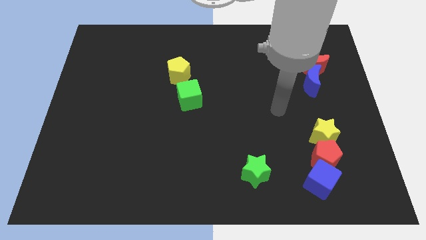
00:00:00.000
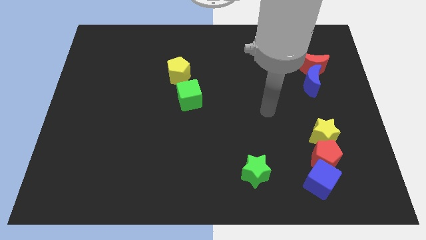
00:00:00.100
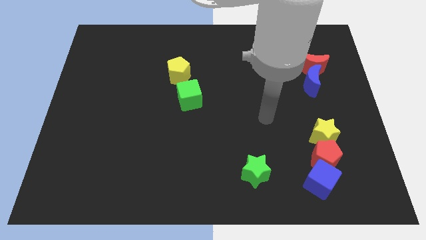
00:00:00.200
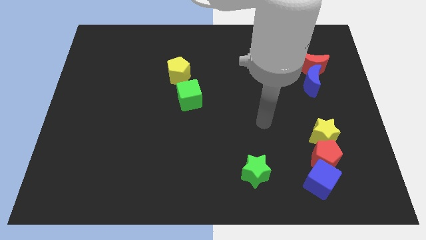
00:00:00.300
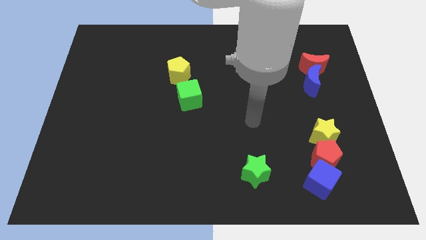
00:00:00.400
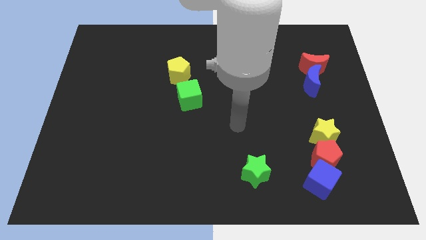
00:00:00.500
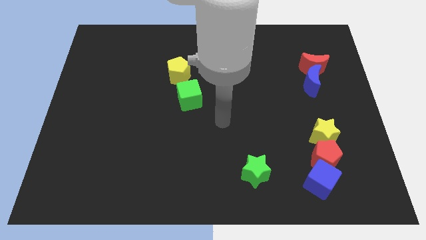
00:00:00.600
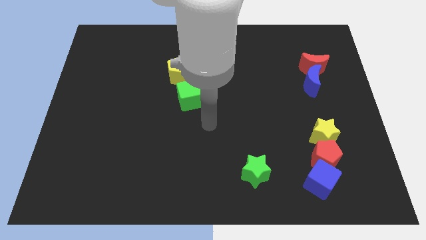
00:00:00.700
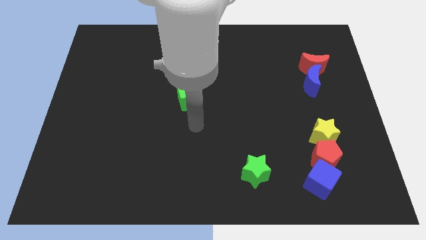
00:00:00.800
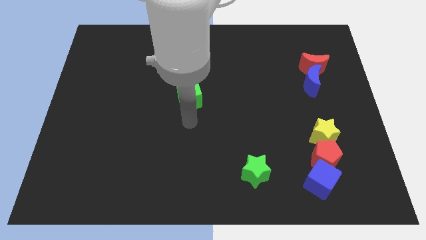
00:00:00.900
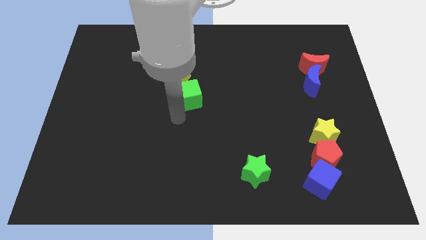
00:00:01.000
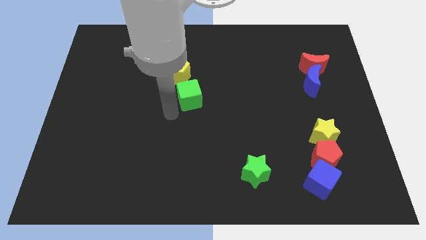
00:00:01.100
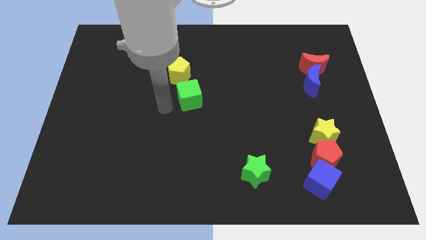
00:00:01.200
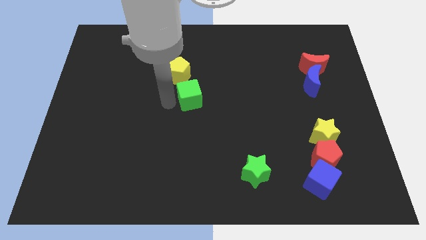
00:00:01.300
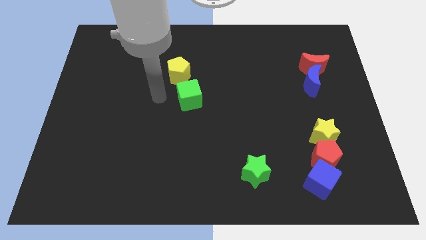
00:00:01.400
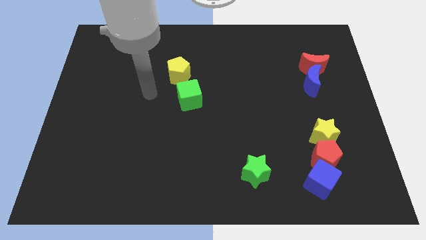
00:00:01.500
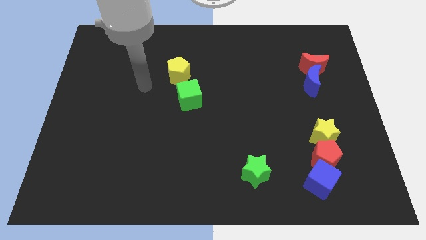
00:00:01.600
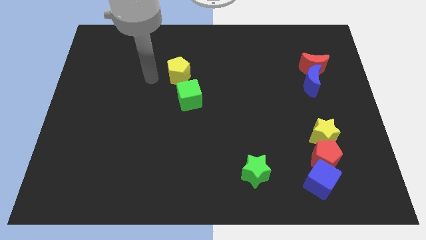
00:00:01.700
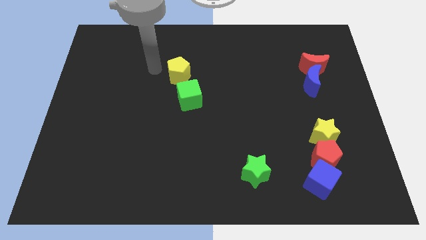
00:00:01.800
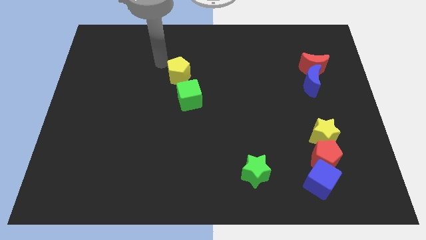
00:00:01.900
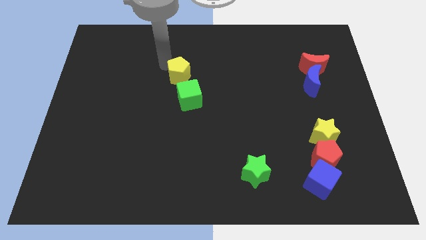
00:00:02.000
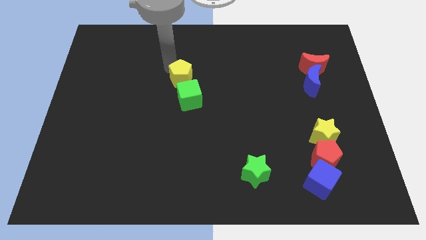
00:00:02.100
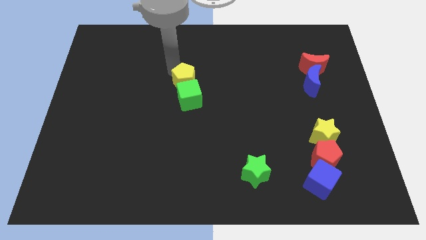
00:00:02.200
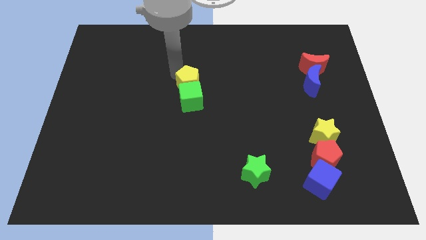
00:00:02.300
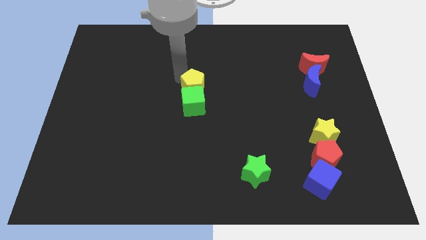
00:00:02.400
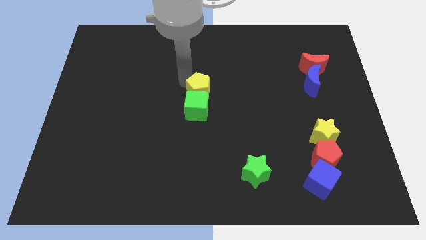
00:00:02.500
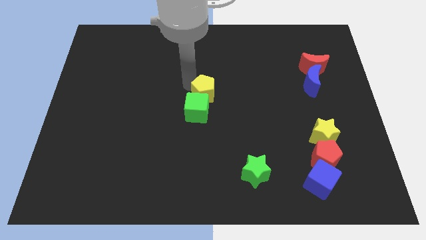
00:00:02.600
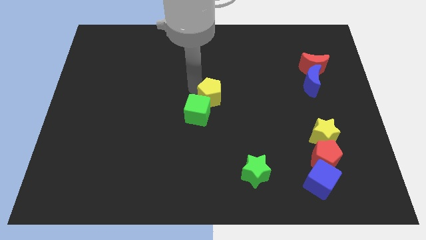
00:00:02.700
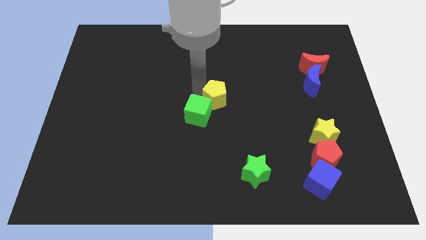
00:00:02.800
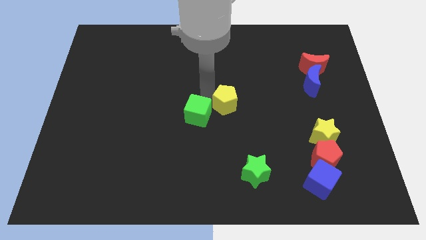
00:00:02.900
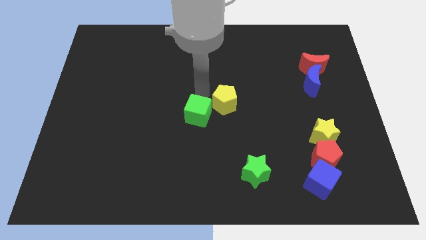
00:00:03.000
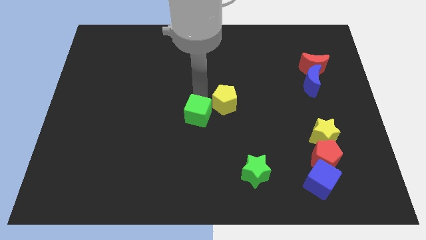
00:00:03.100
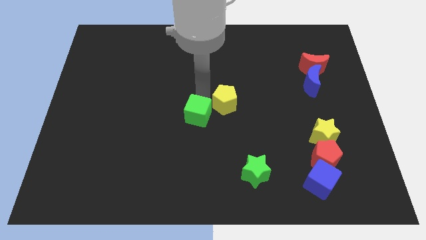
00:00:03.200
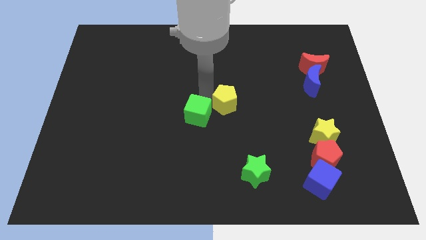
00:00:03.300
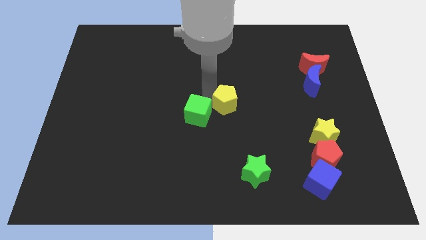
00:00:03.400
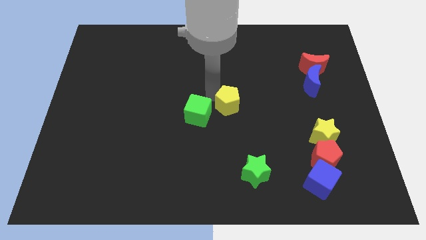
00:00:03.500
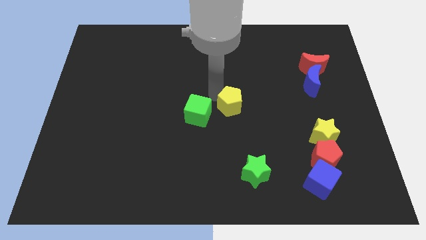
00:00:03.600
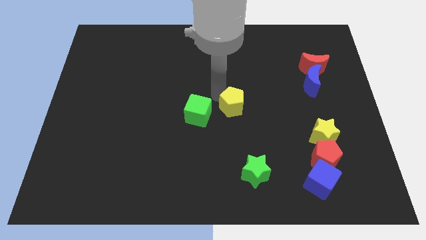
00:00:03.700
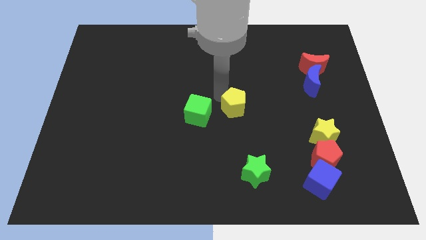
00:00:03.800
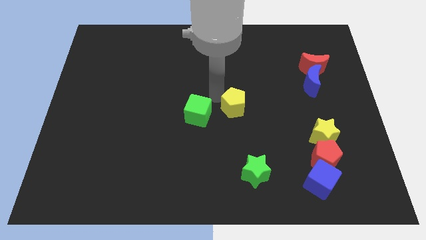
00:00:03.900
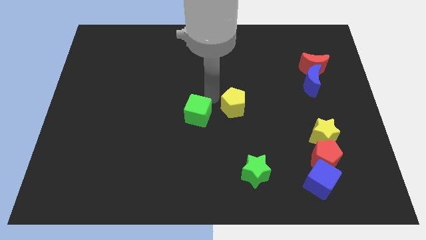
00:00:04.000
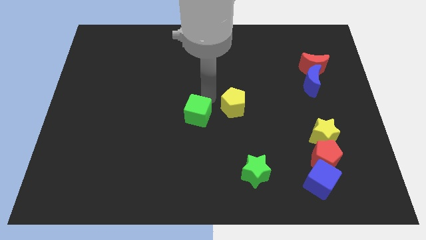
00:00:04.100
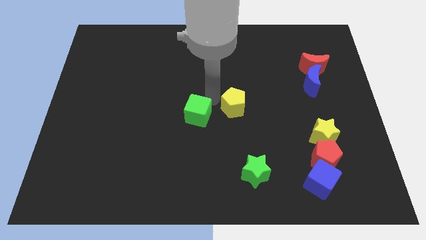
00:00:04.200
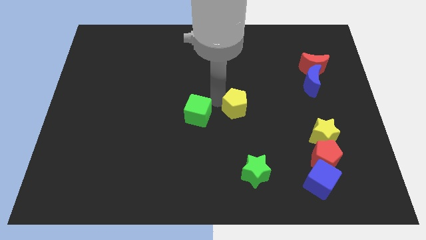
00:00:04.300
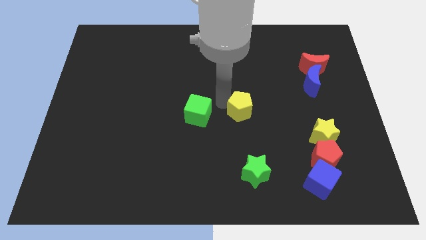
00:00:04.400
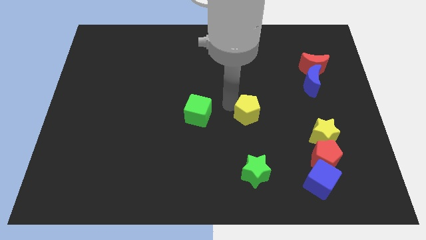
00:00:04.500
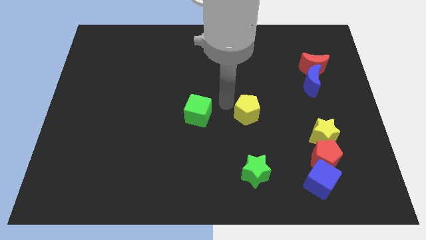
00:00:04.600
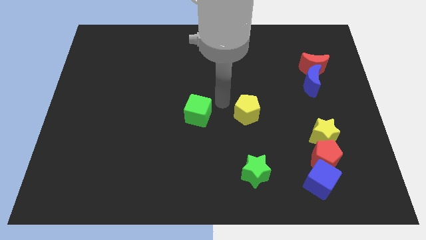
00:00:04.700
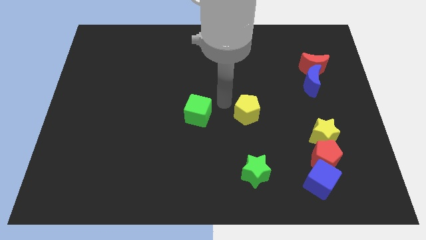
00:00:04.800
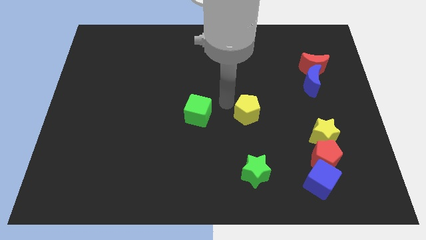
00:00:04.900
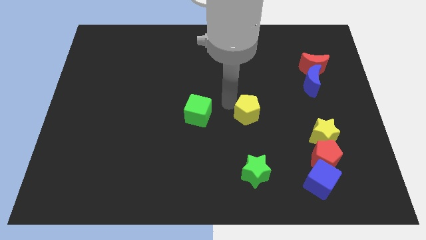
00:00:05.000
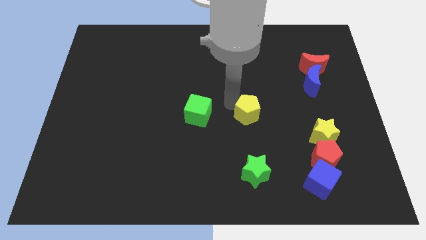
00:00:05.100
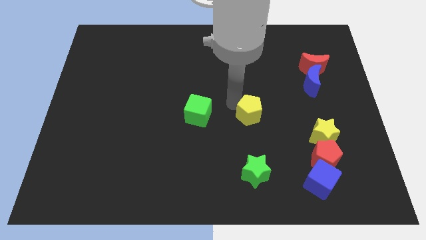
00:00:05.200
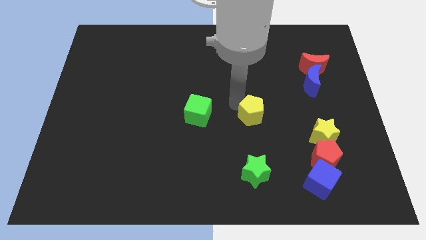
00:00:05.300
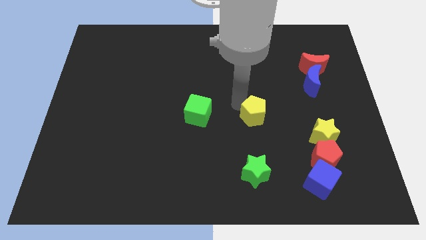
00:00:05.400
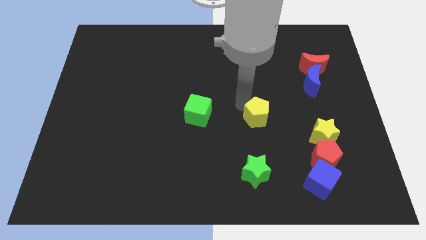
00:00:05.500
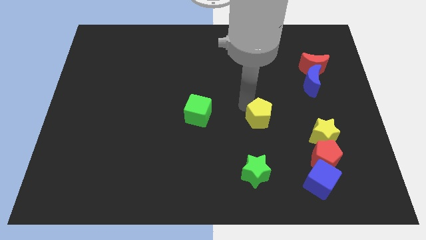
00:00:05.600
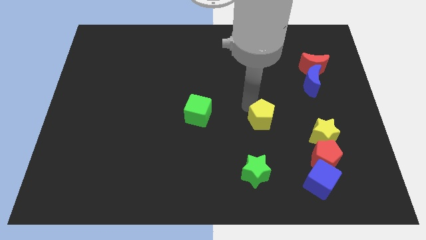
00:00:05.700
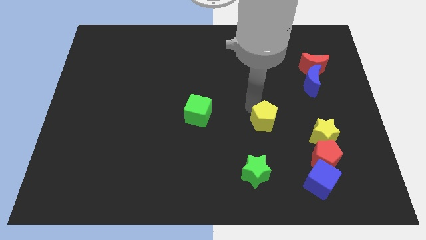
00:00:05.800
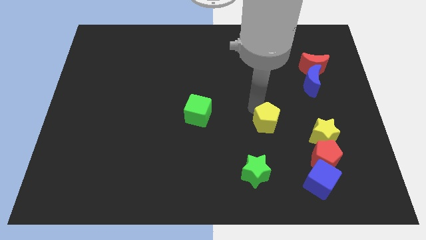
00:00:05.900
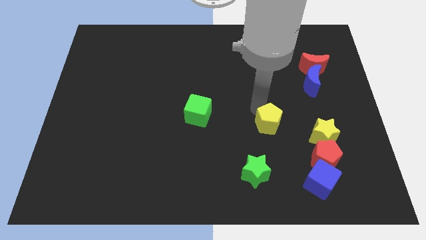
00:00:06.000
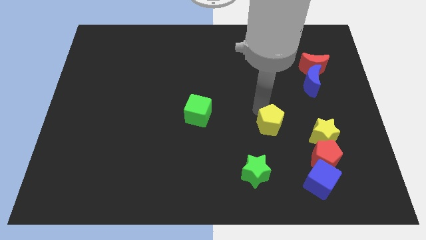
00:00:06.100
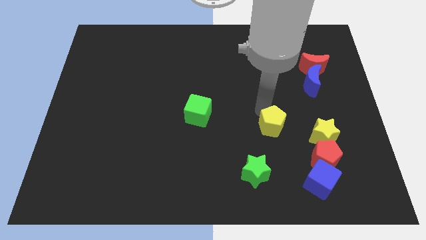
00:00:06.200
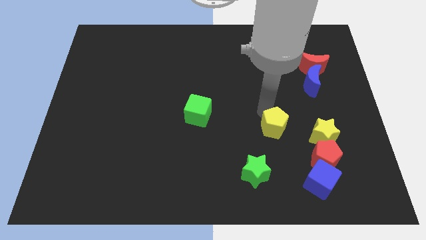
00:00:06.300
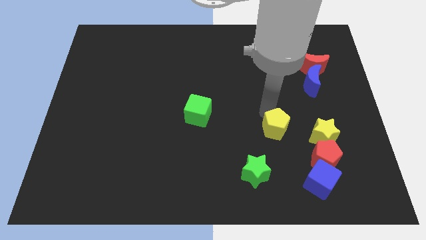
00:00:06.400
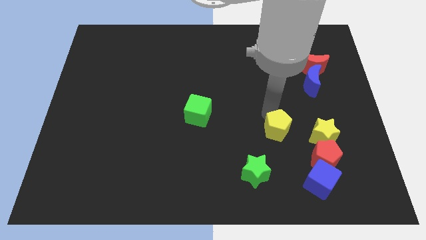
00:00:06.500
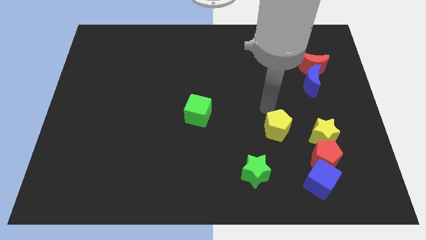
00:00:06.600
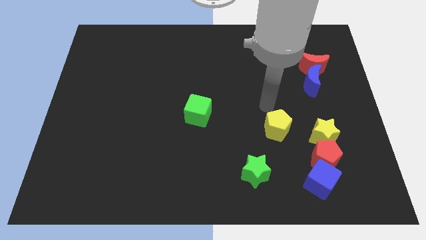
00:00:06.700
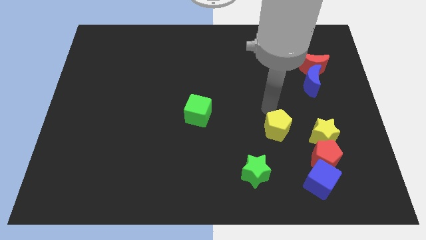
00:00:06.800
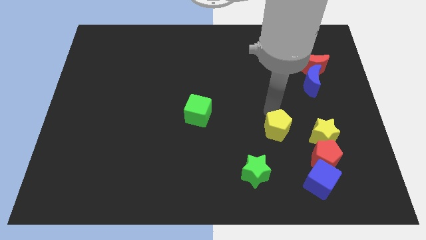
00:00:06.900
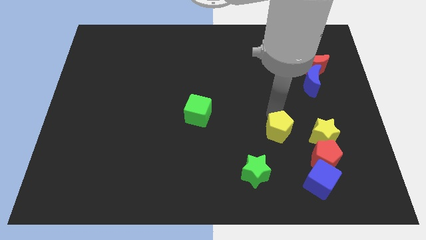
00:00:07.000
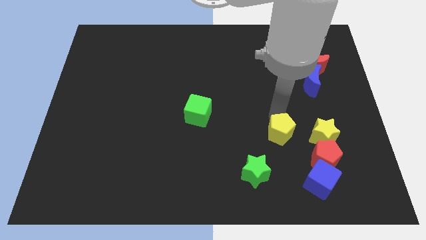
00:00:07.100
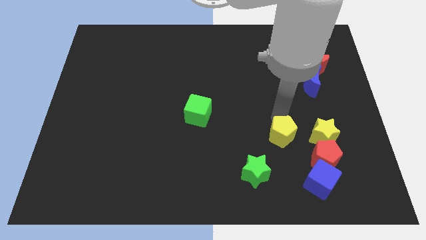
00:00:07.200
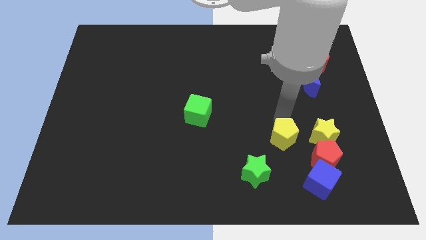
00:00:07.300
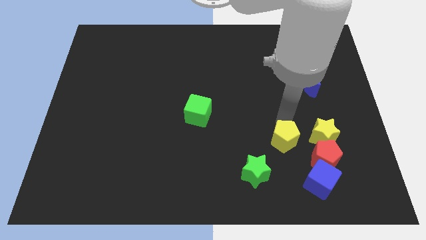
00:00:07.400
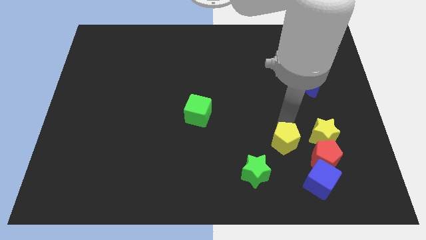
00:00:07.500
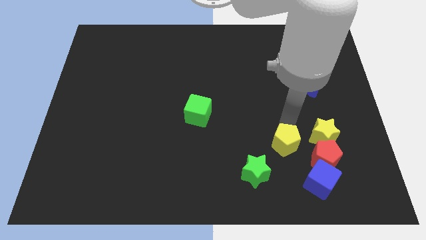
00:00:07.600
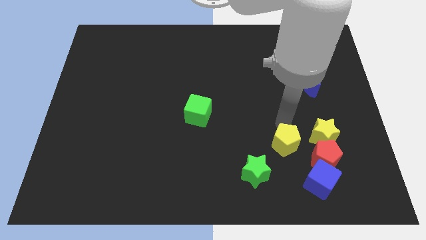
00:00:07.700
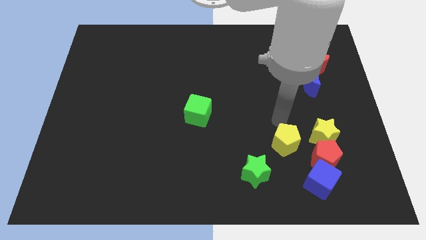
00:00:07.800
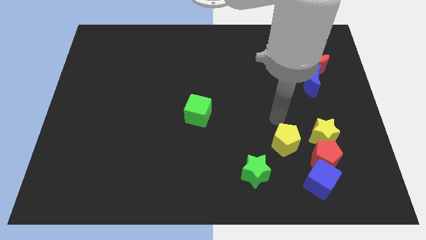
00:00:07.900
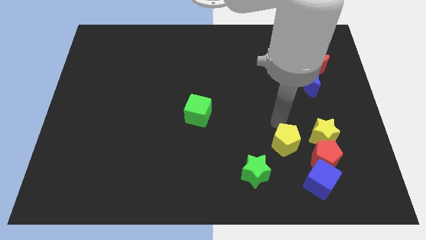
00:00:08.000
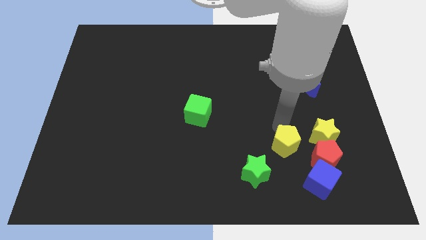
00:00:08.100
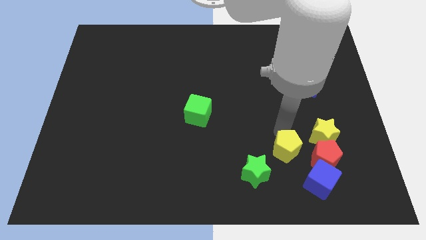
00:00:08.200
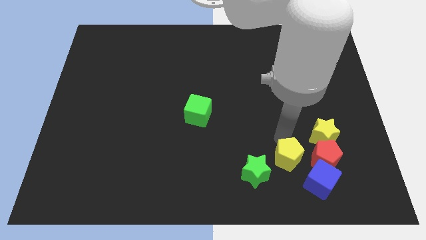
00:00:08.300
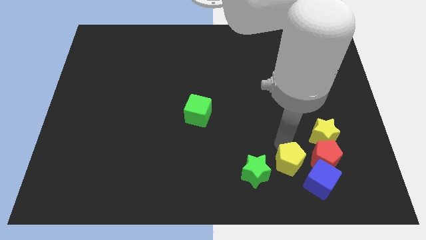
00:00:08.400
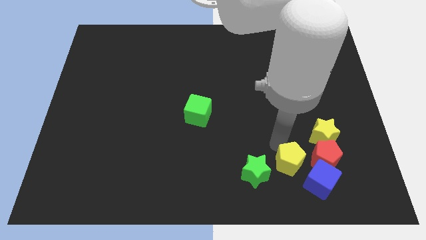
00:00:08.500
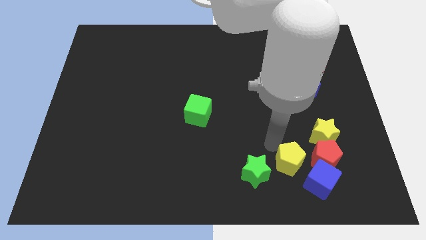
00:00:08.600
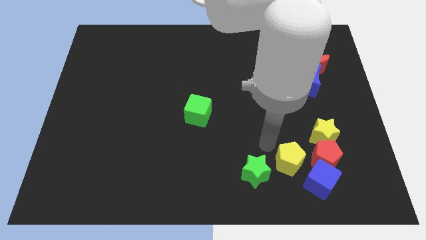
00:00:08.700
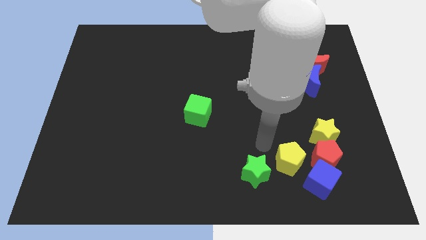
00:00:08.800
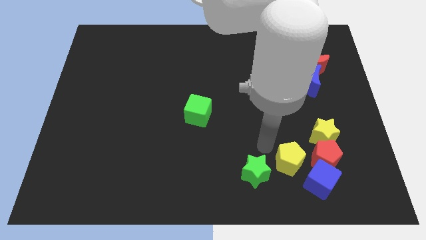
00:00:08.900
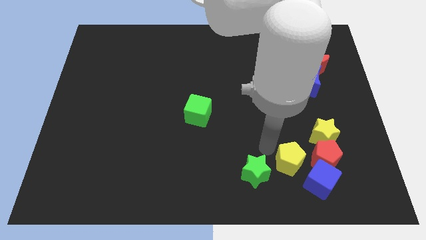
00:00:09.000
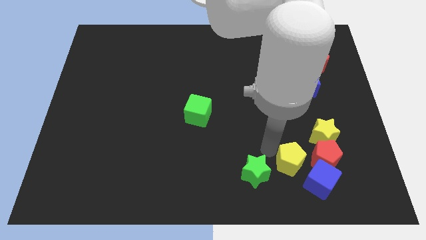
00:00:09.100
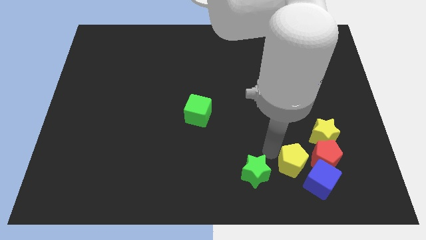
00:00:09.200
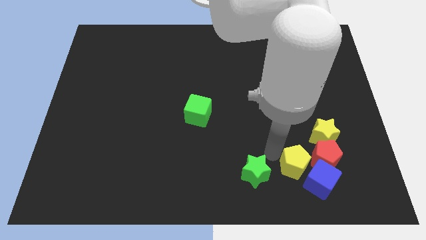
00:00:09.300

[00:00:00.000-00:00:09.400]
move the yellow pentagon next to the blue cube
